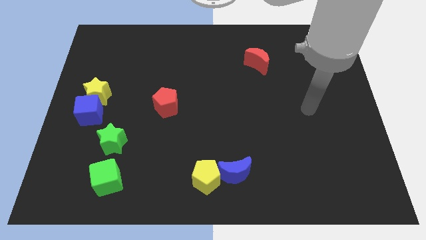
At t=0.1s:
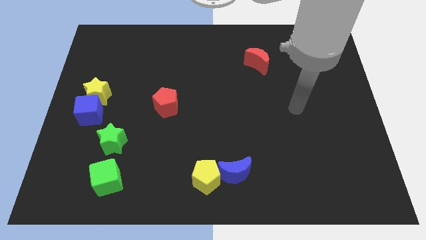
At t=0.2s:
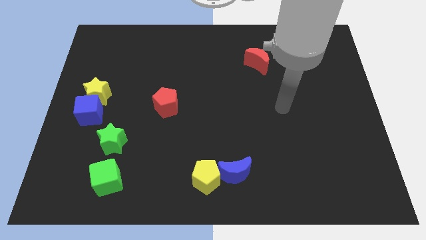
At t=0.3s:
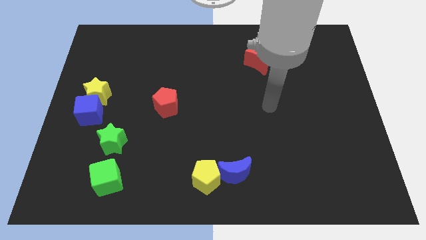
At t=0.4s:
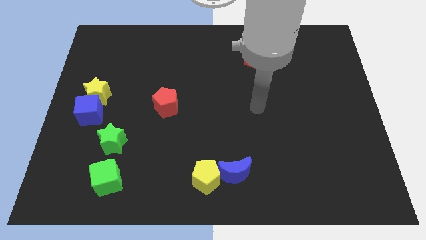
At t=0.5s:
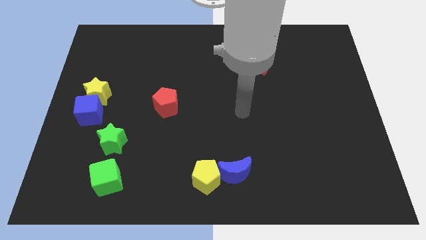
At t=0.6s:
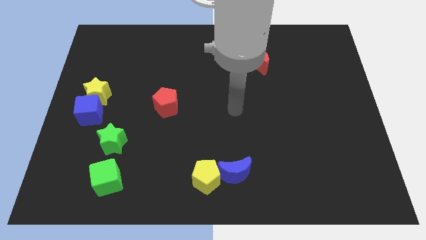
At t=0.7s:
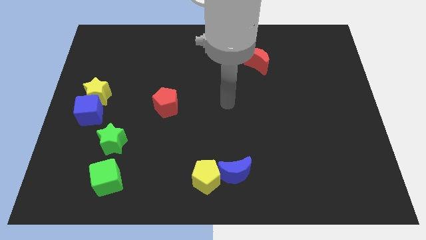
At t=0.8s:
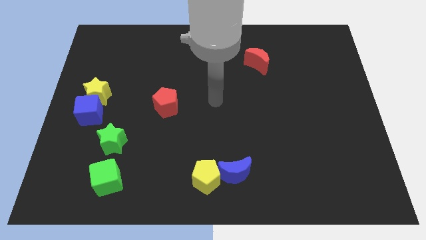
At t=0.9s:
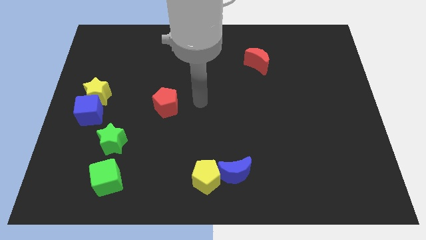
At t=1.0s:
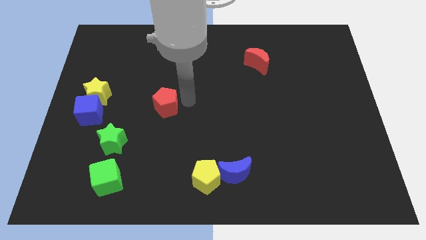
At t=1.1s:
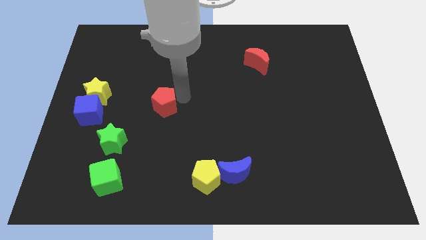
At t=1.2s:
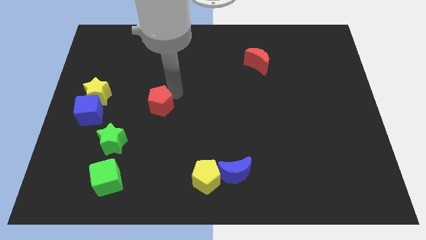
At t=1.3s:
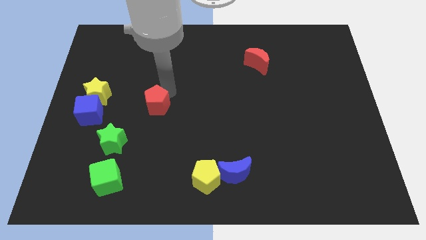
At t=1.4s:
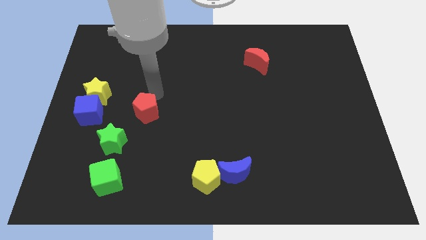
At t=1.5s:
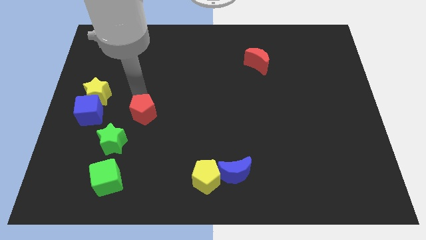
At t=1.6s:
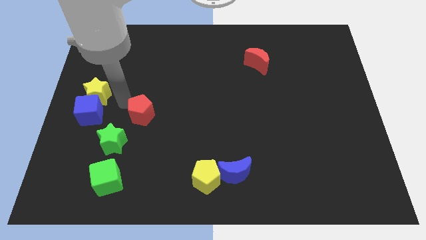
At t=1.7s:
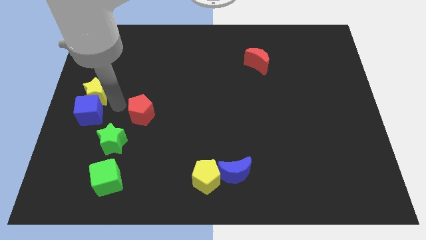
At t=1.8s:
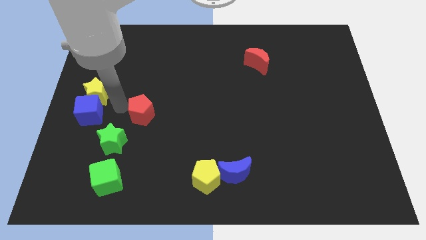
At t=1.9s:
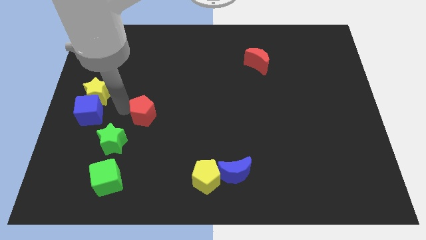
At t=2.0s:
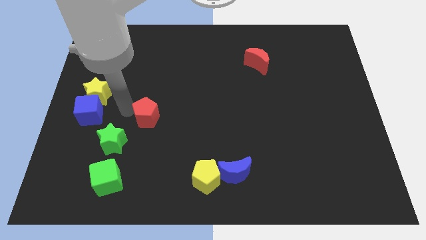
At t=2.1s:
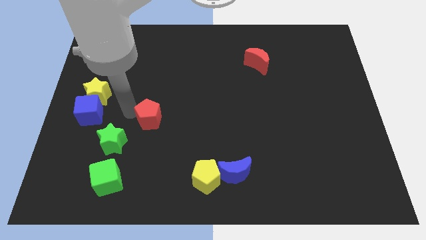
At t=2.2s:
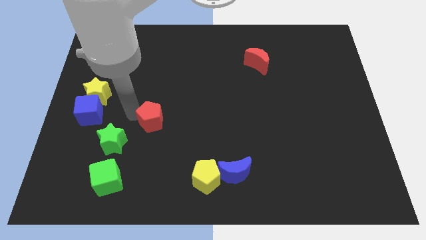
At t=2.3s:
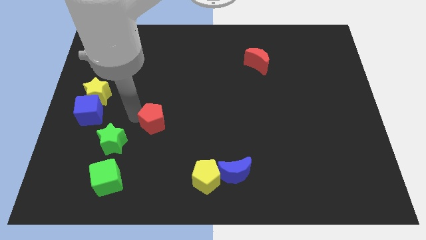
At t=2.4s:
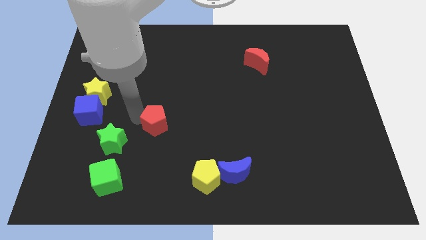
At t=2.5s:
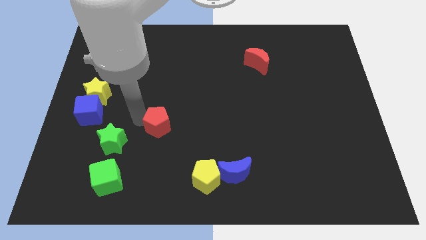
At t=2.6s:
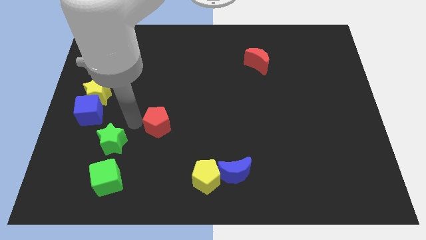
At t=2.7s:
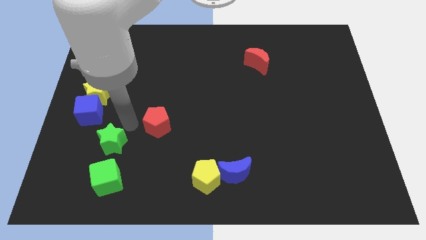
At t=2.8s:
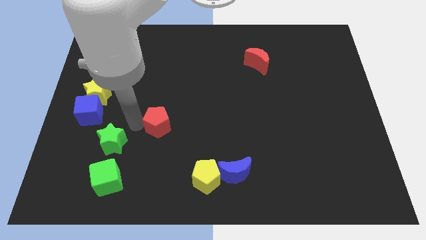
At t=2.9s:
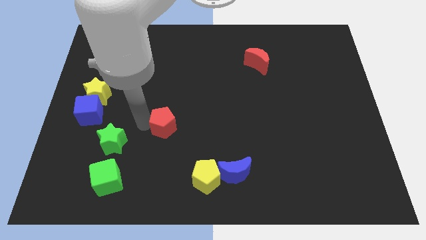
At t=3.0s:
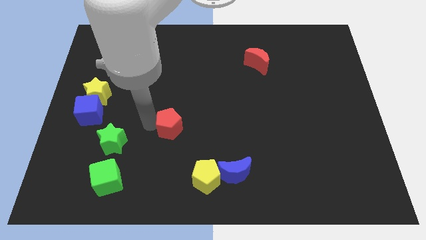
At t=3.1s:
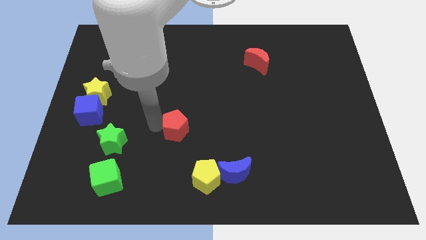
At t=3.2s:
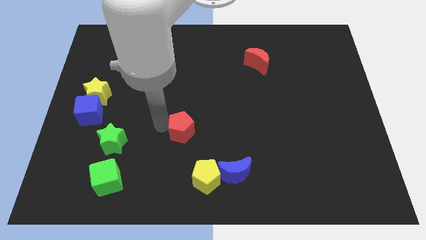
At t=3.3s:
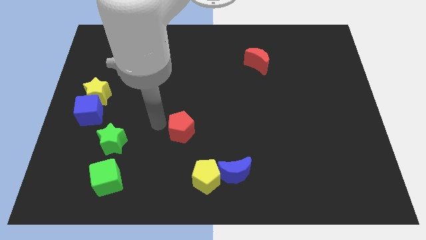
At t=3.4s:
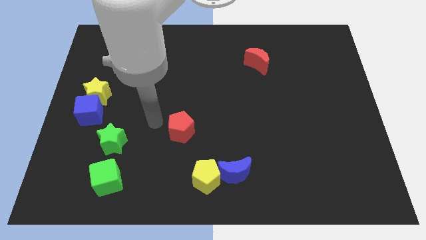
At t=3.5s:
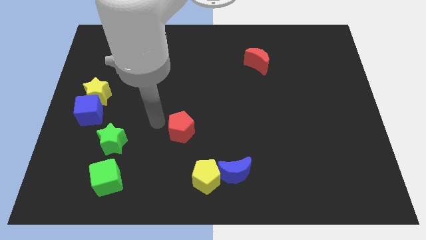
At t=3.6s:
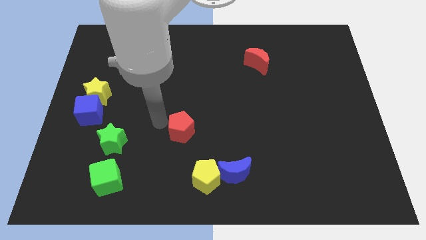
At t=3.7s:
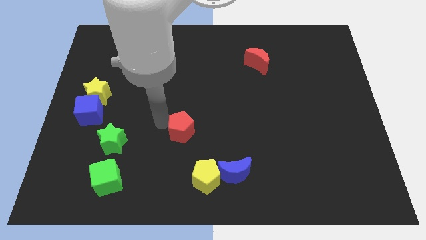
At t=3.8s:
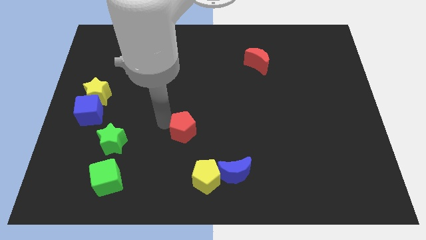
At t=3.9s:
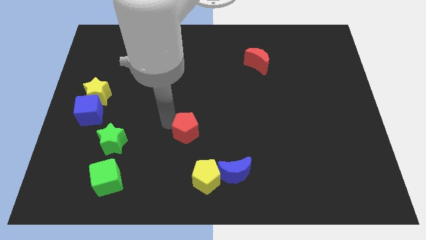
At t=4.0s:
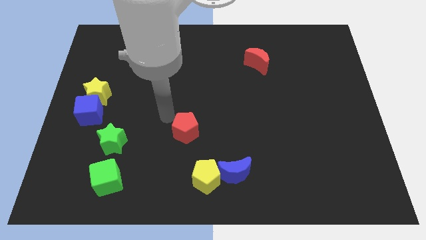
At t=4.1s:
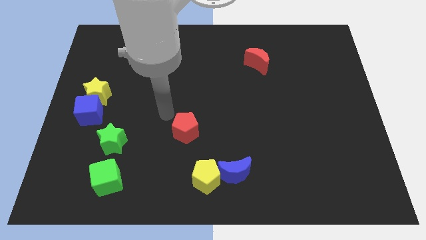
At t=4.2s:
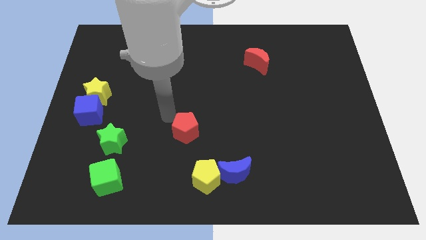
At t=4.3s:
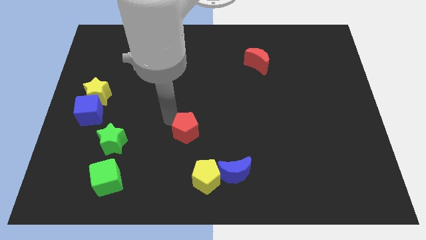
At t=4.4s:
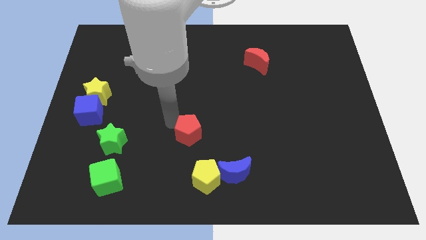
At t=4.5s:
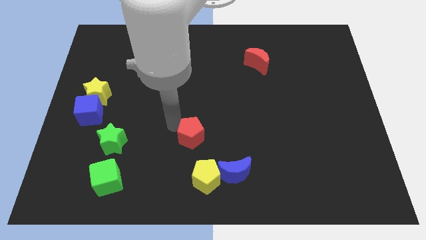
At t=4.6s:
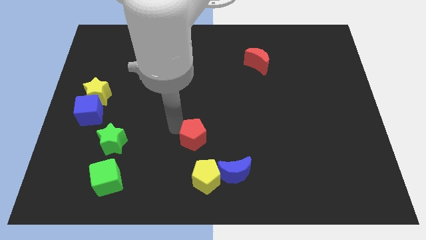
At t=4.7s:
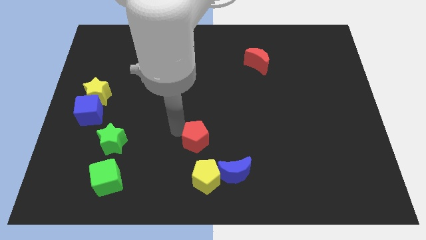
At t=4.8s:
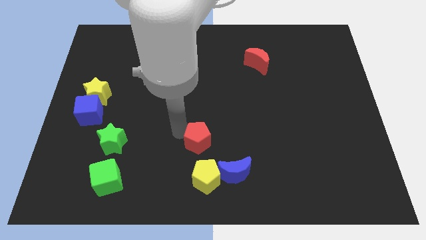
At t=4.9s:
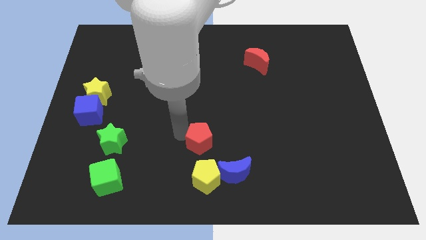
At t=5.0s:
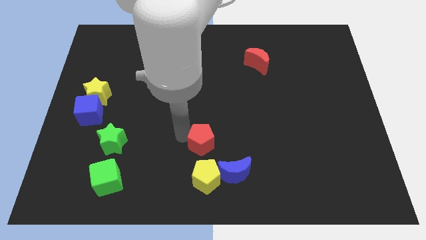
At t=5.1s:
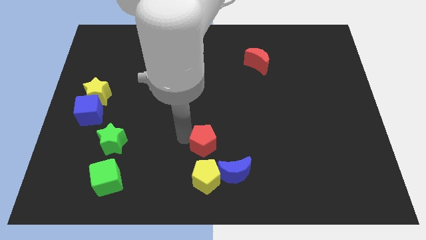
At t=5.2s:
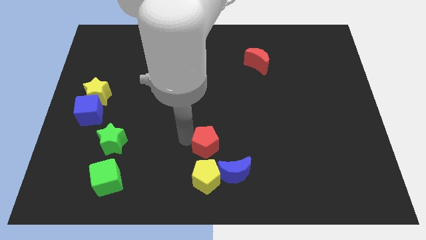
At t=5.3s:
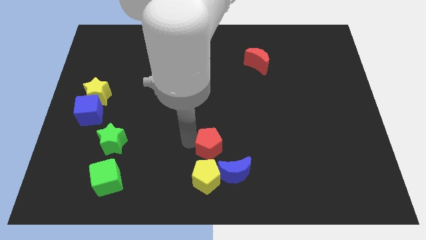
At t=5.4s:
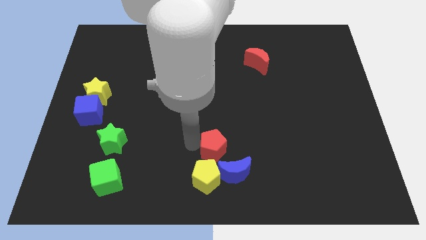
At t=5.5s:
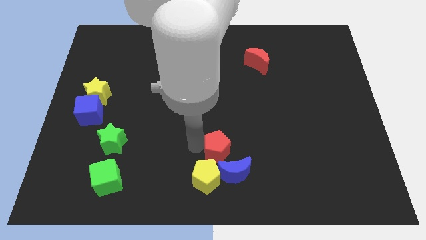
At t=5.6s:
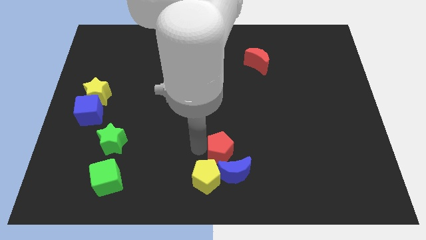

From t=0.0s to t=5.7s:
put the red pentagon towards the blue moon
